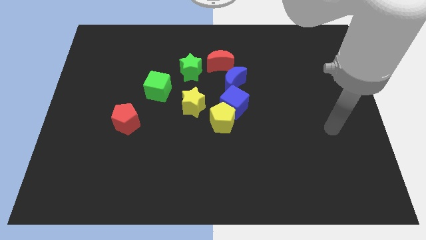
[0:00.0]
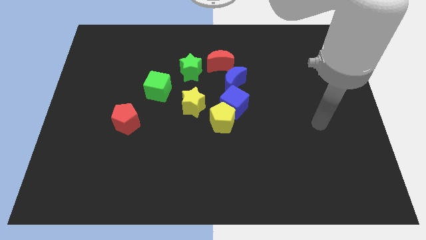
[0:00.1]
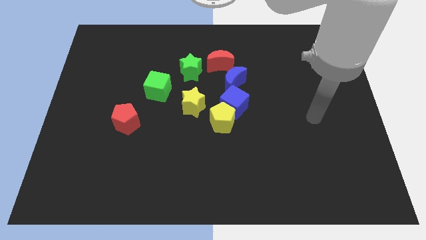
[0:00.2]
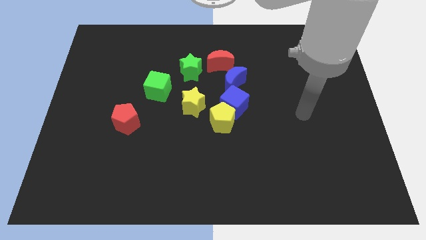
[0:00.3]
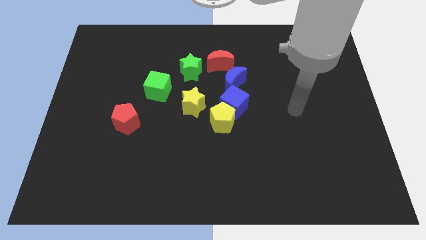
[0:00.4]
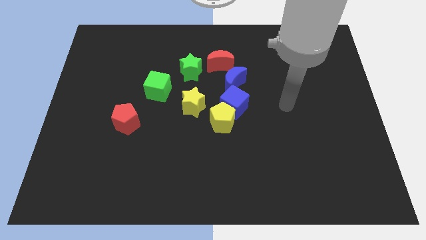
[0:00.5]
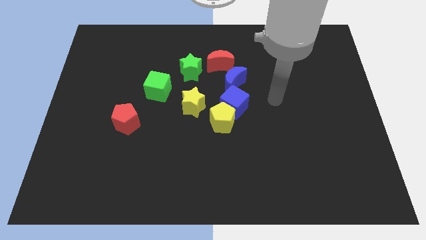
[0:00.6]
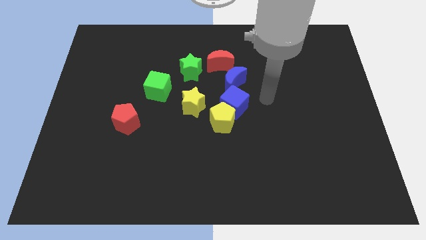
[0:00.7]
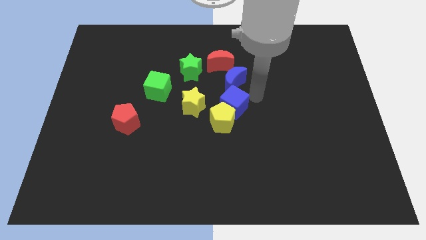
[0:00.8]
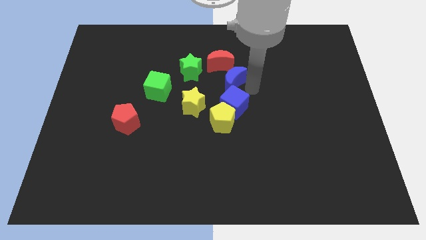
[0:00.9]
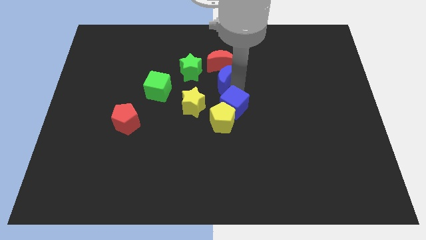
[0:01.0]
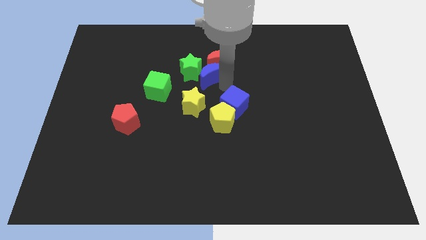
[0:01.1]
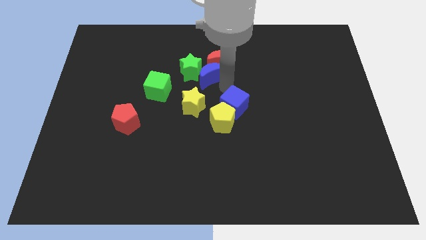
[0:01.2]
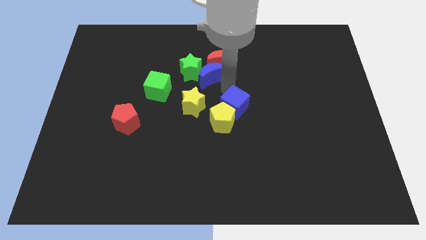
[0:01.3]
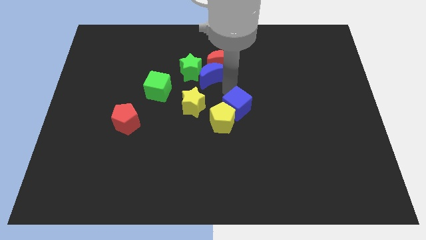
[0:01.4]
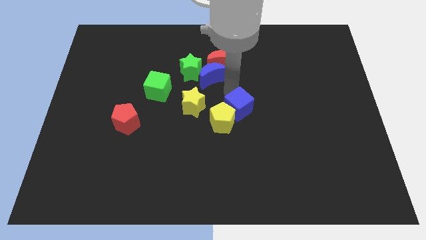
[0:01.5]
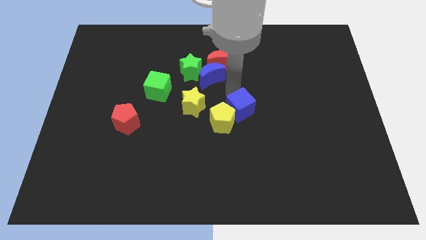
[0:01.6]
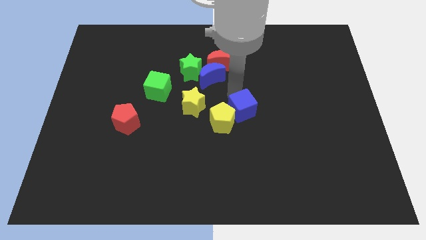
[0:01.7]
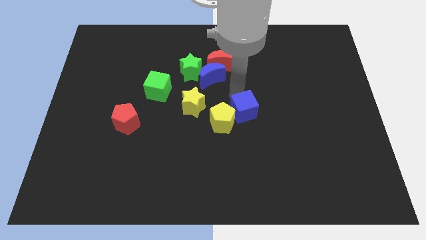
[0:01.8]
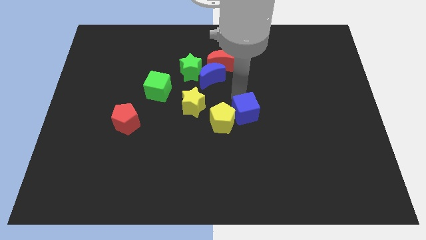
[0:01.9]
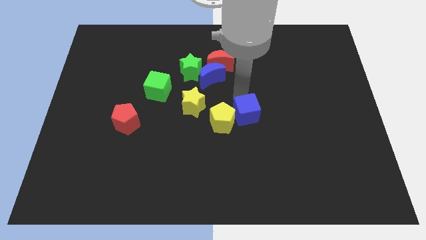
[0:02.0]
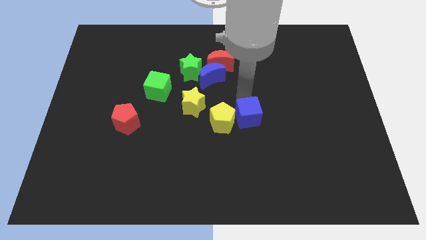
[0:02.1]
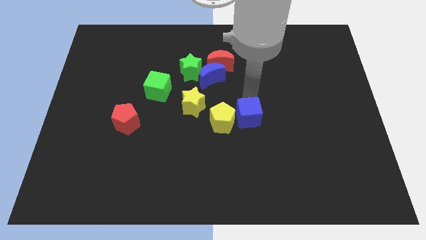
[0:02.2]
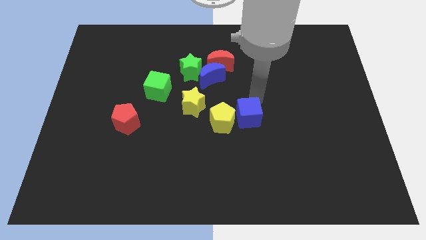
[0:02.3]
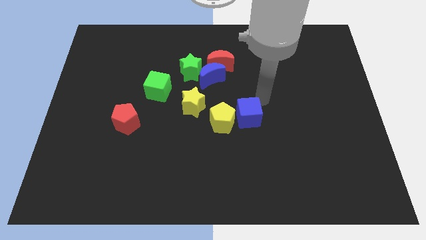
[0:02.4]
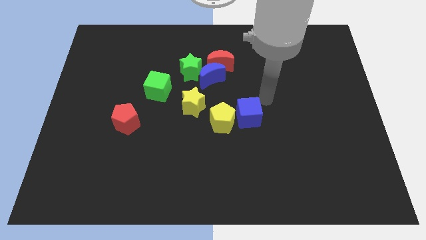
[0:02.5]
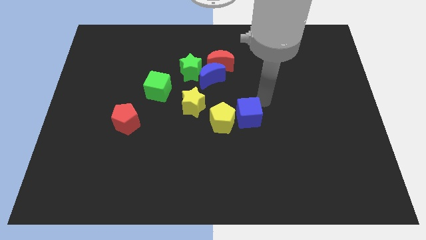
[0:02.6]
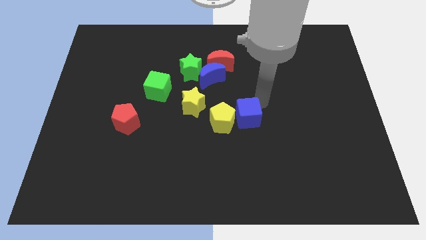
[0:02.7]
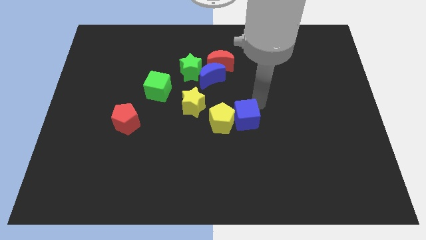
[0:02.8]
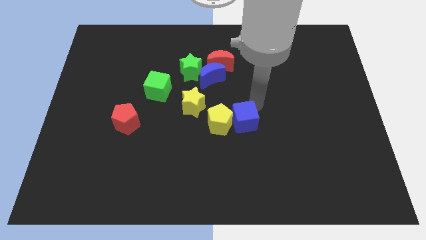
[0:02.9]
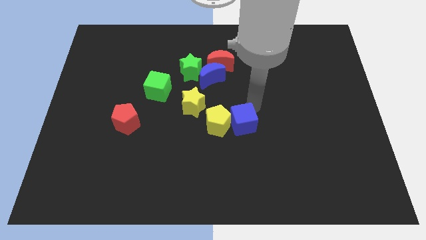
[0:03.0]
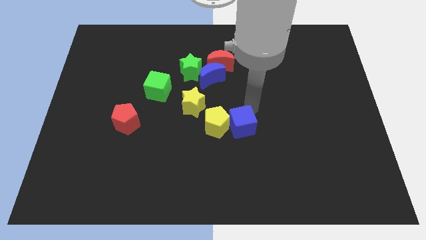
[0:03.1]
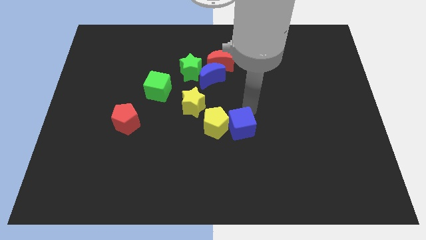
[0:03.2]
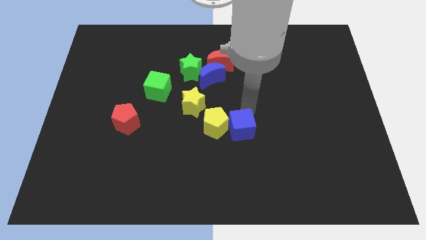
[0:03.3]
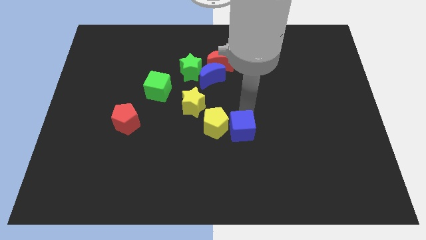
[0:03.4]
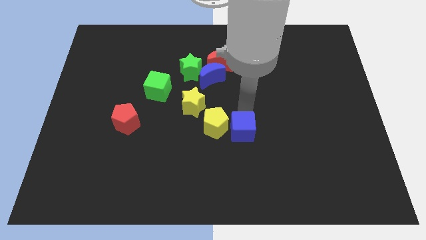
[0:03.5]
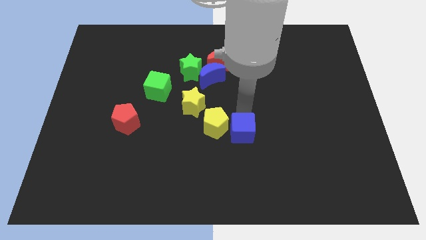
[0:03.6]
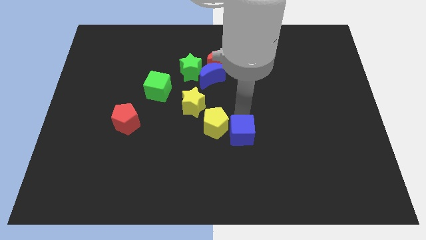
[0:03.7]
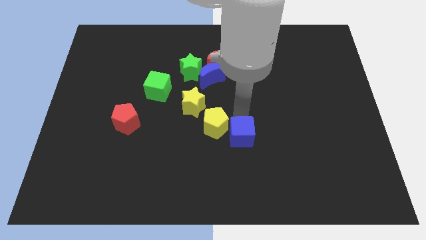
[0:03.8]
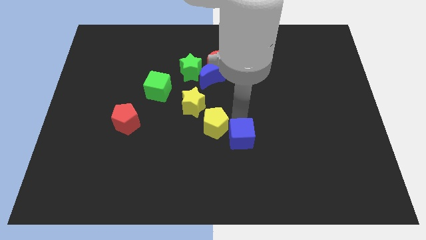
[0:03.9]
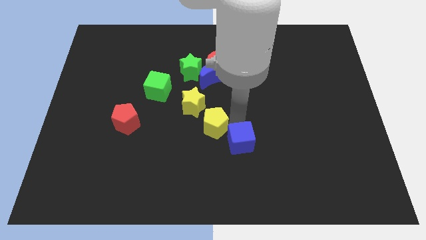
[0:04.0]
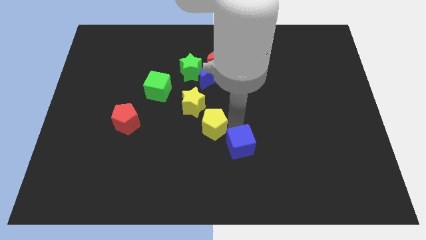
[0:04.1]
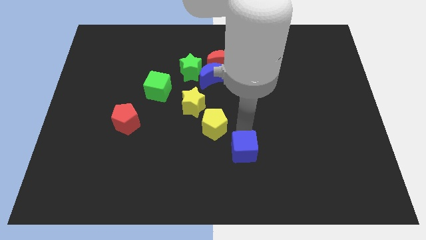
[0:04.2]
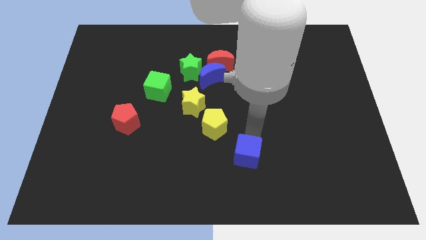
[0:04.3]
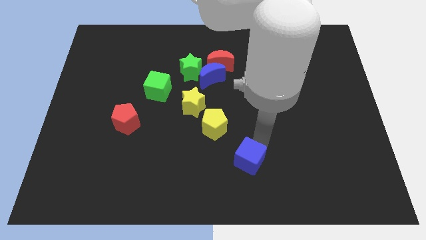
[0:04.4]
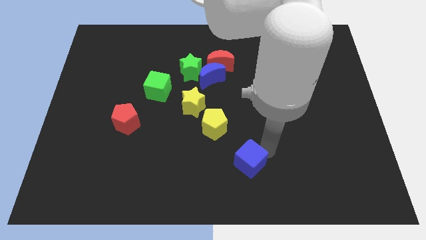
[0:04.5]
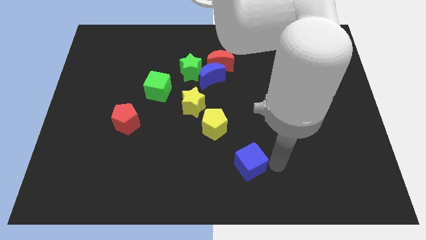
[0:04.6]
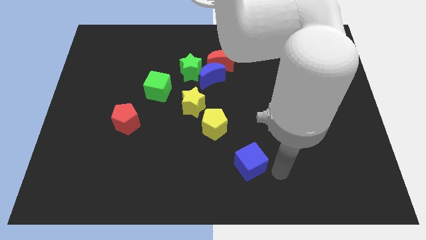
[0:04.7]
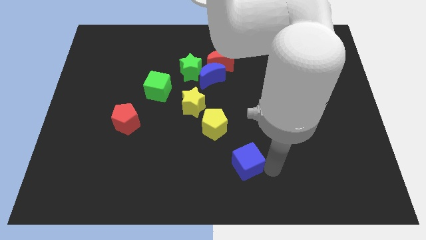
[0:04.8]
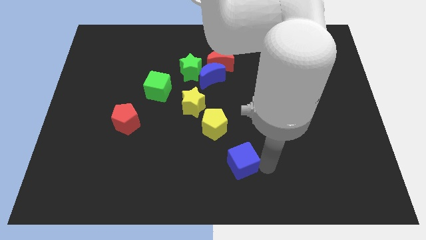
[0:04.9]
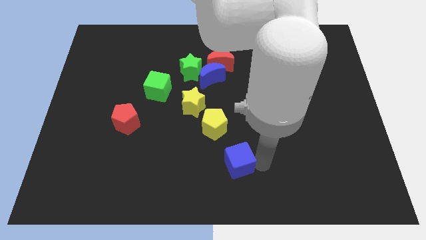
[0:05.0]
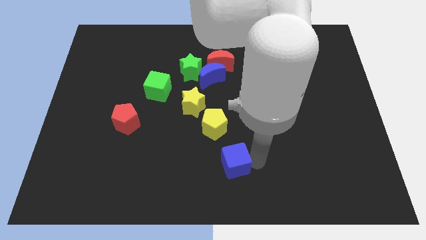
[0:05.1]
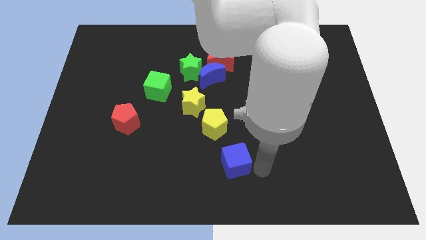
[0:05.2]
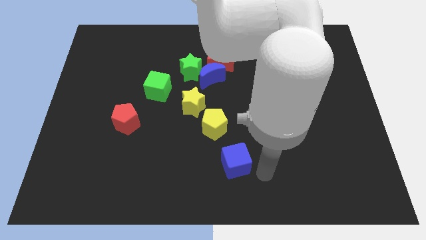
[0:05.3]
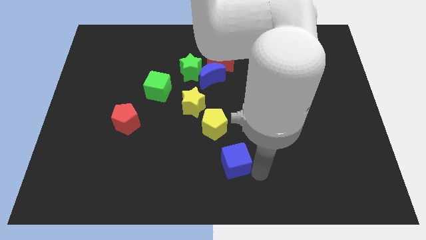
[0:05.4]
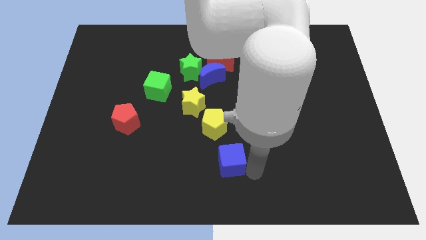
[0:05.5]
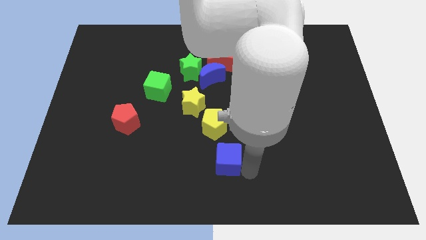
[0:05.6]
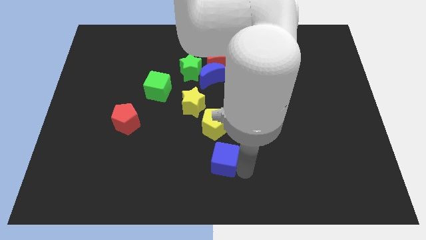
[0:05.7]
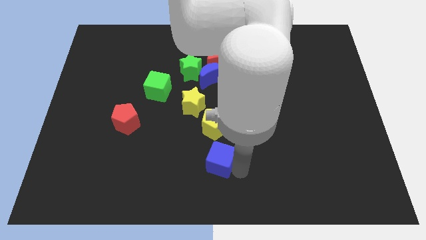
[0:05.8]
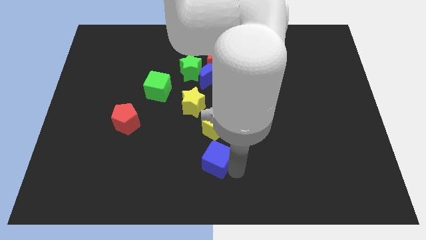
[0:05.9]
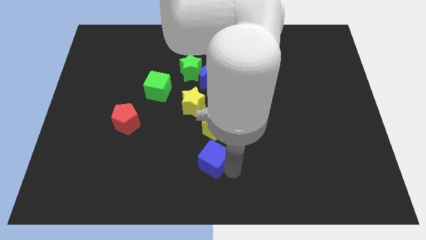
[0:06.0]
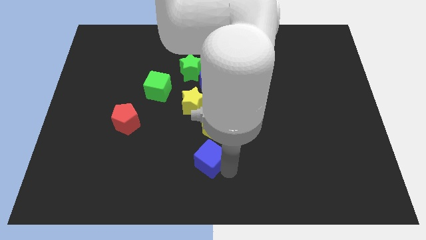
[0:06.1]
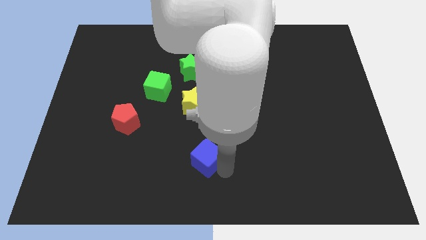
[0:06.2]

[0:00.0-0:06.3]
put the blue cube diagonally down and to the left of the yellow pentagon
